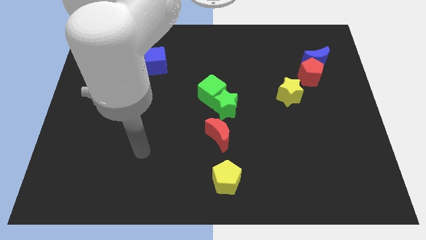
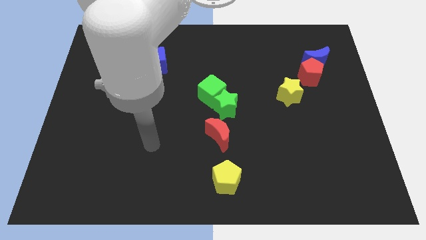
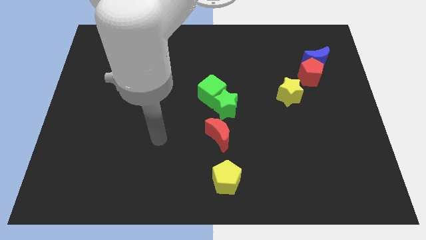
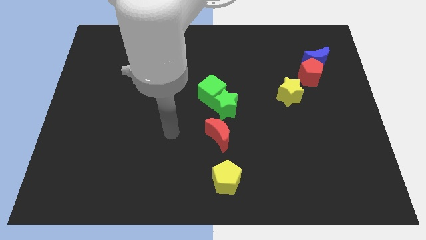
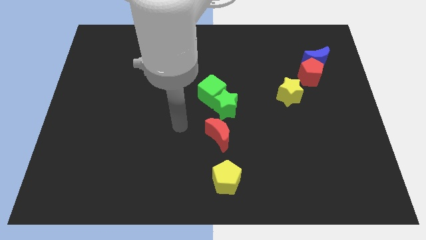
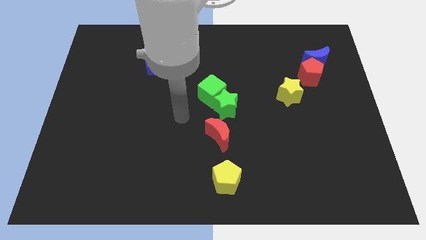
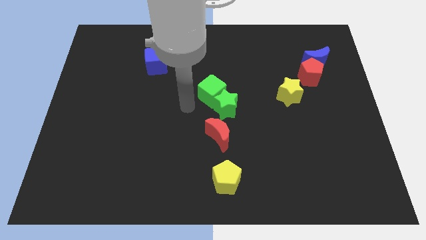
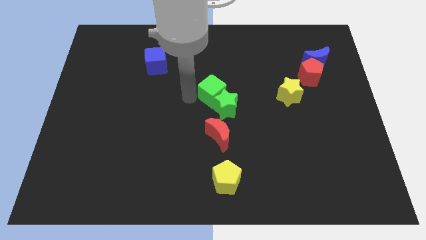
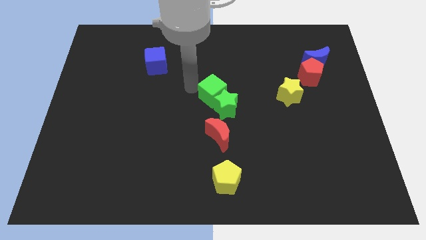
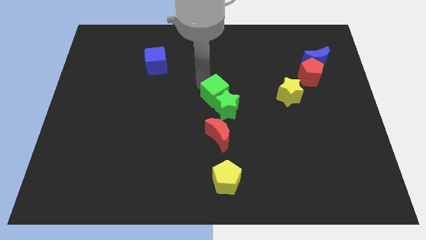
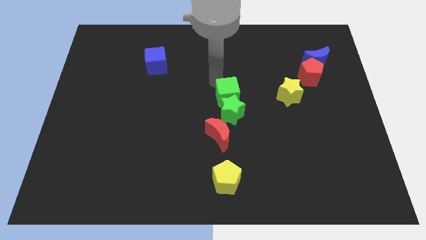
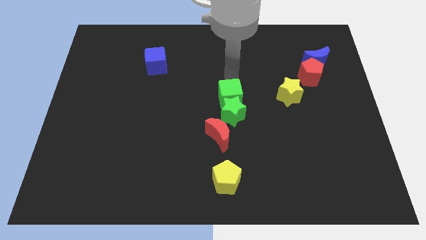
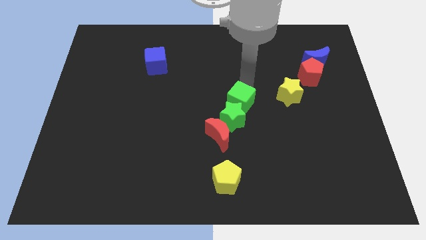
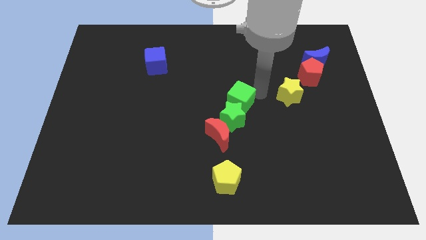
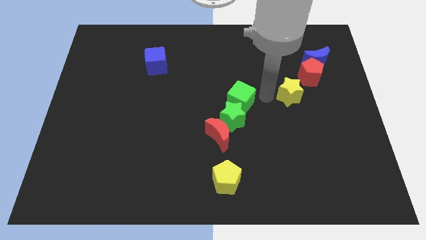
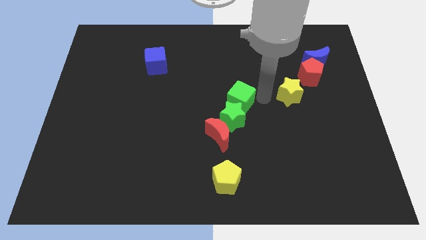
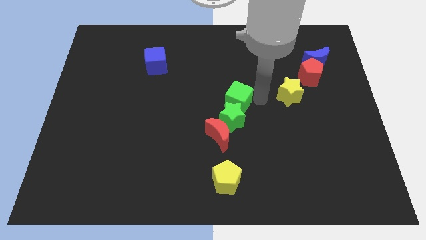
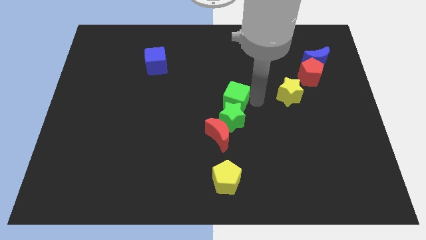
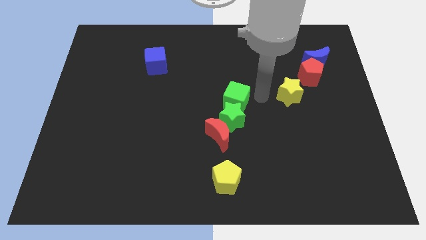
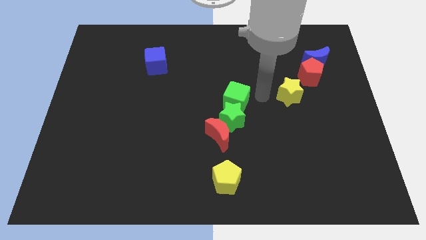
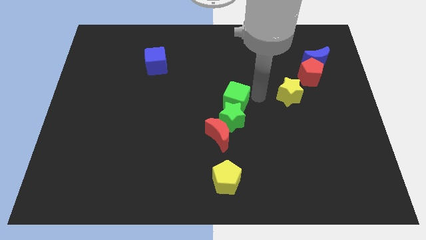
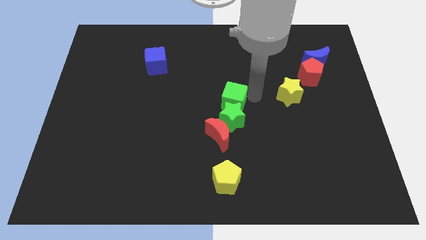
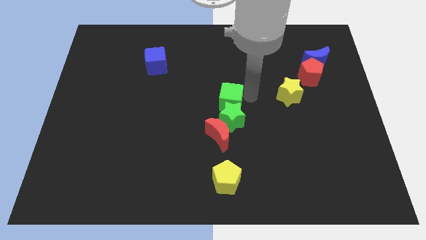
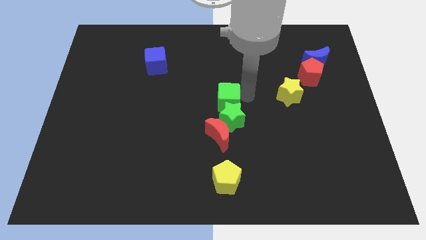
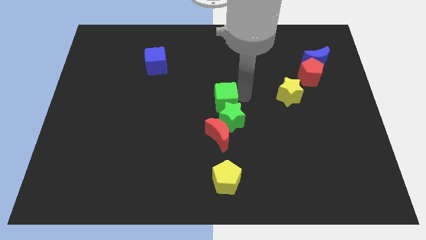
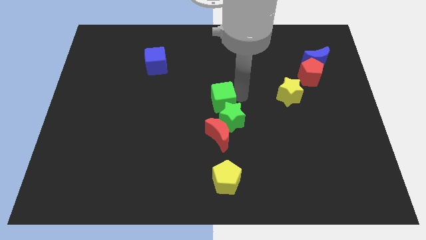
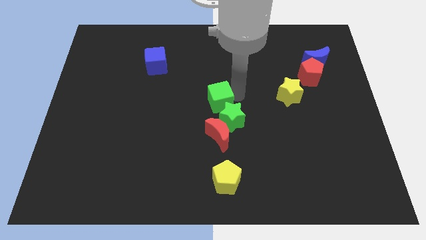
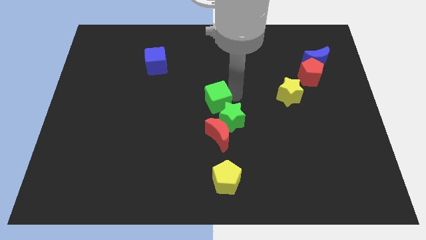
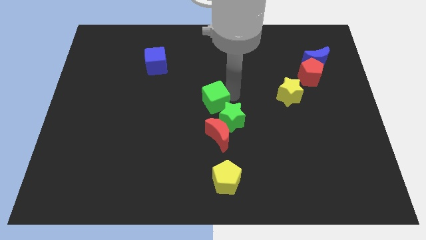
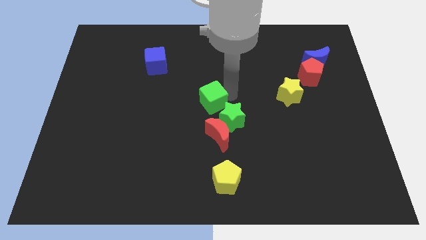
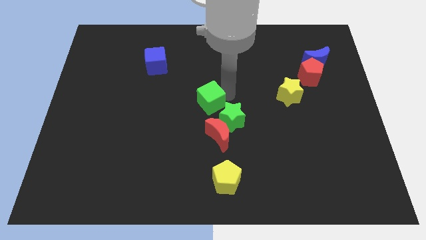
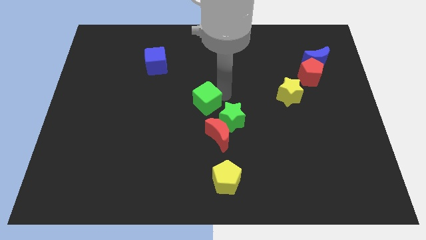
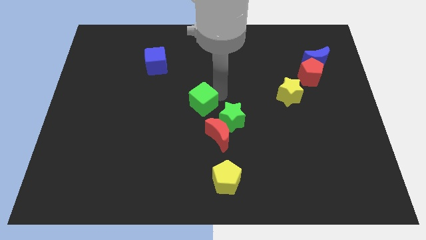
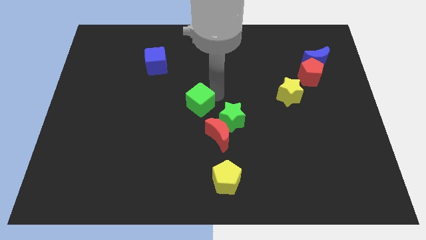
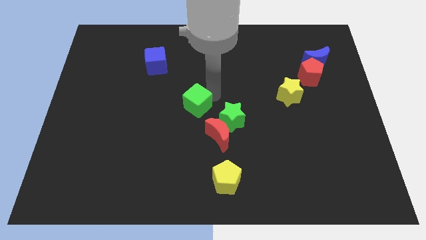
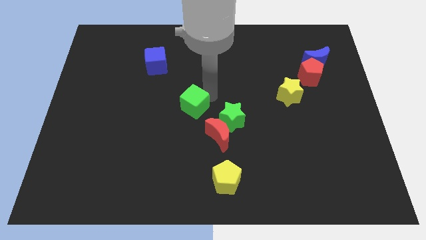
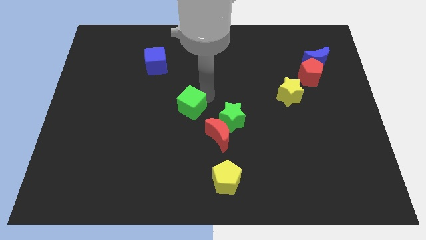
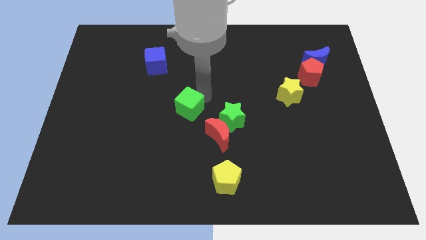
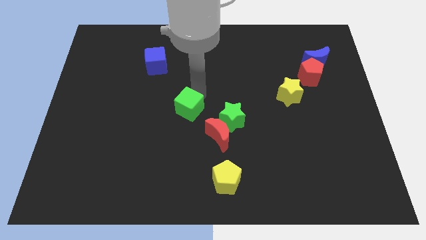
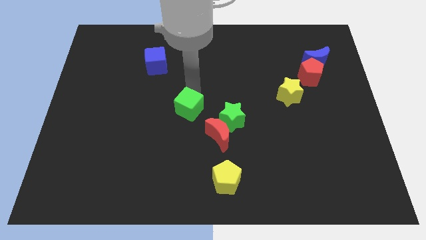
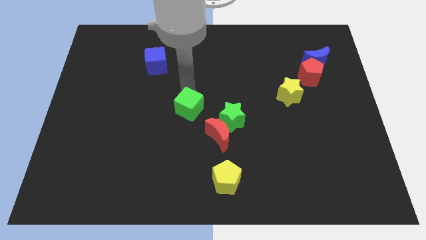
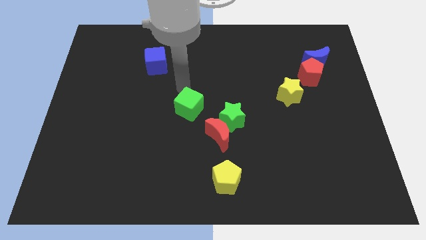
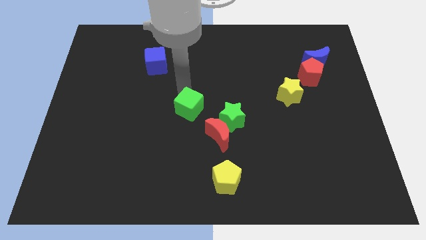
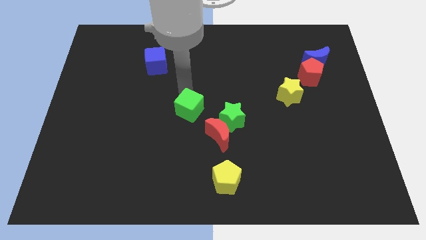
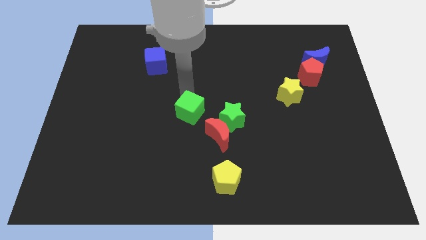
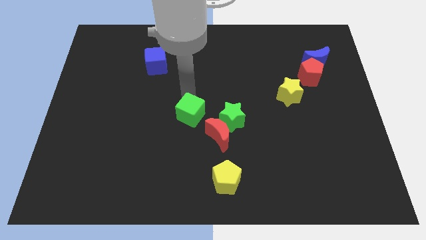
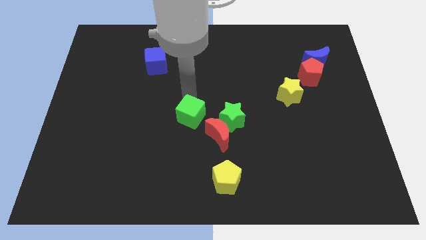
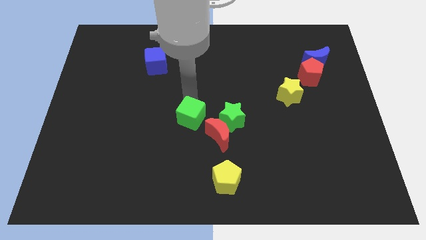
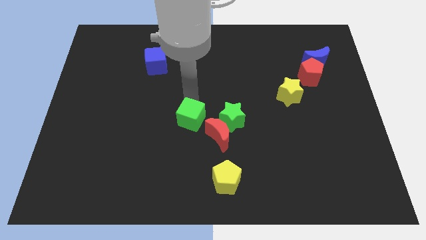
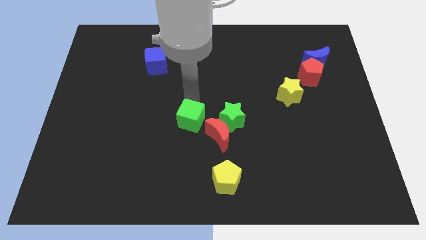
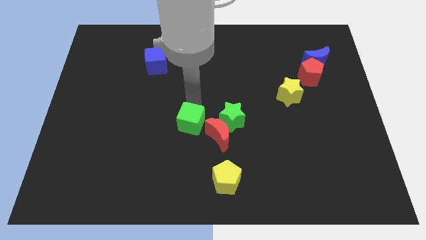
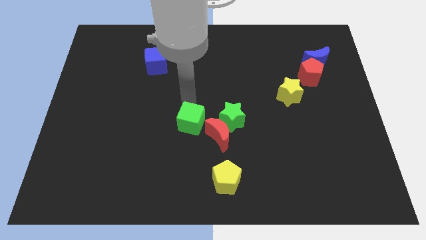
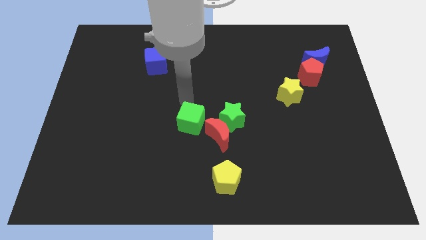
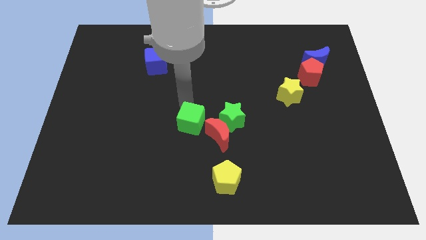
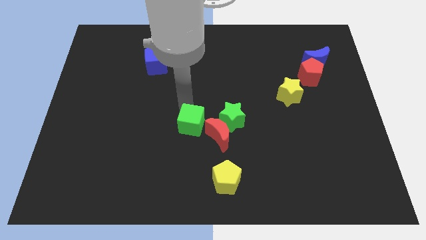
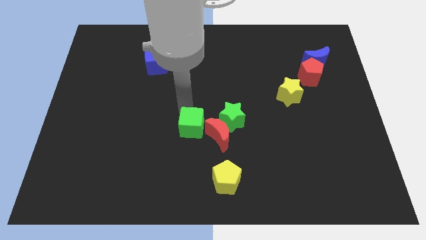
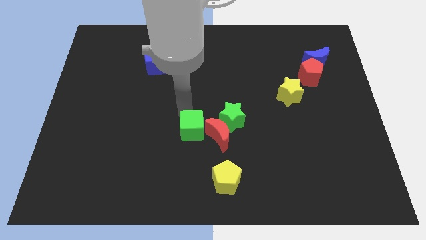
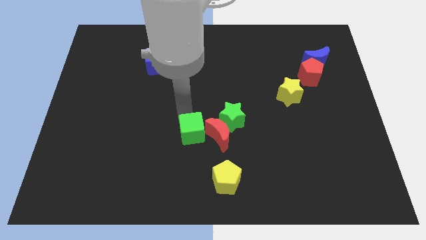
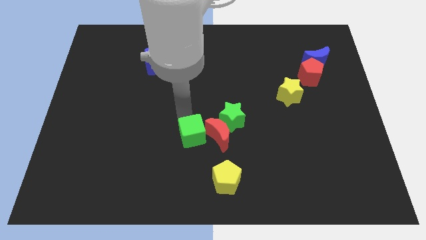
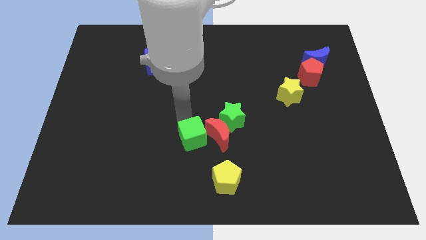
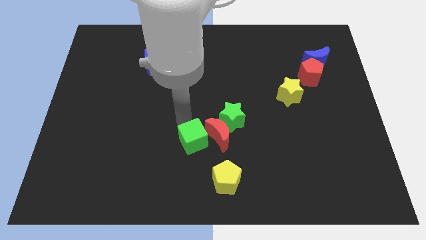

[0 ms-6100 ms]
put the green cube to the top left side of the yellow pentagon

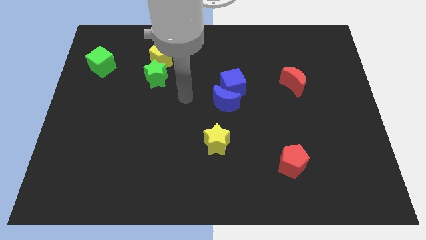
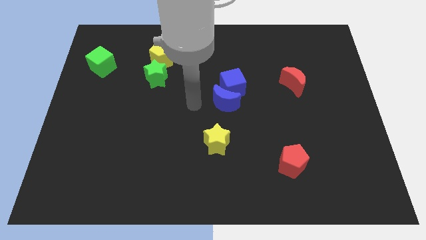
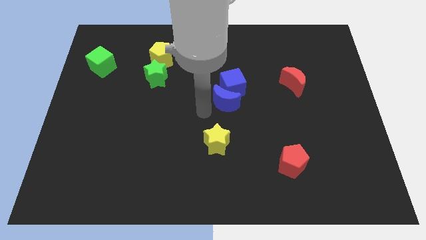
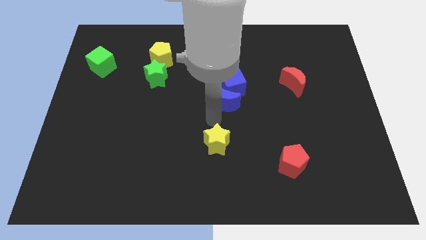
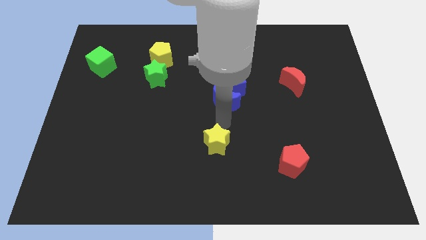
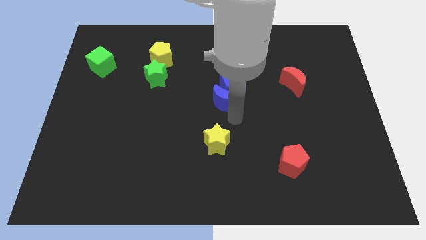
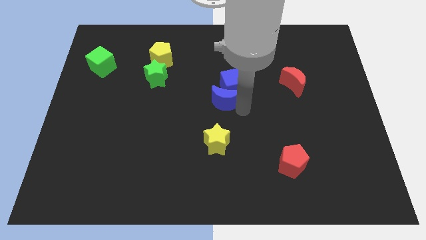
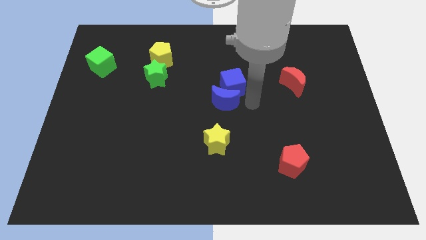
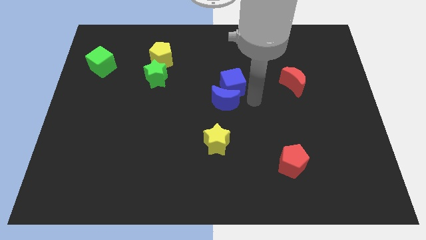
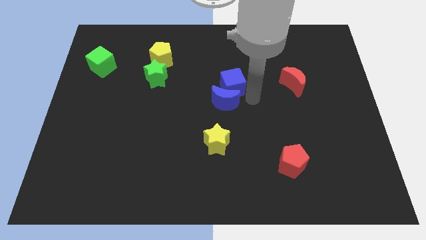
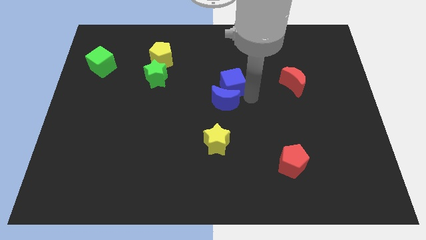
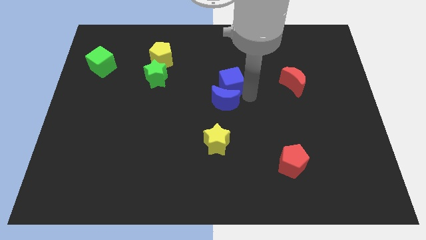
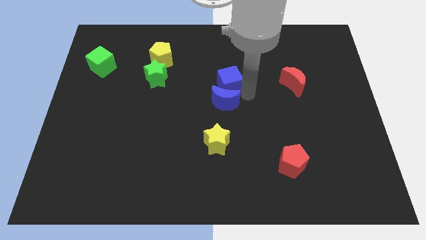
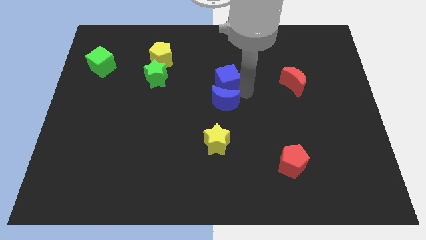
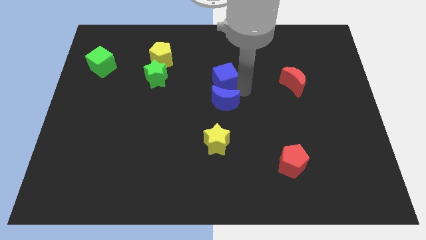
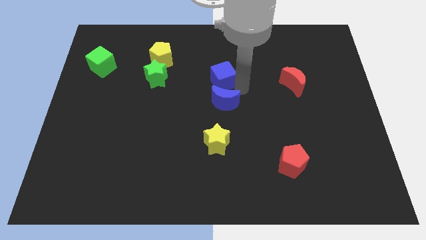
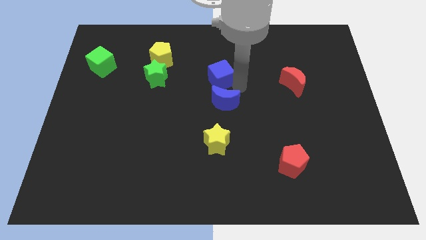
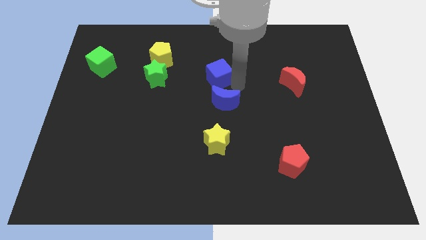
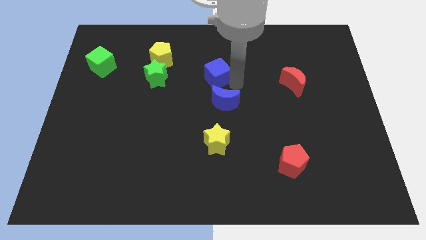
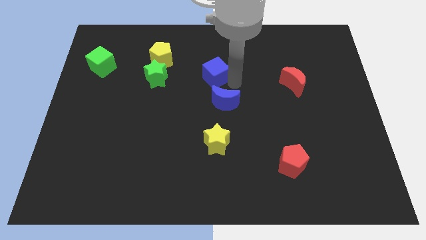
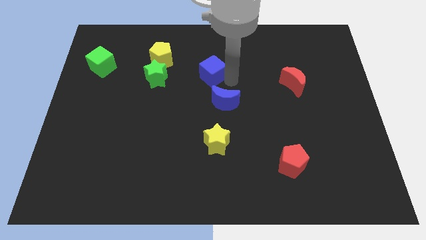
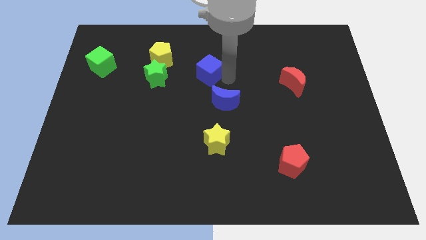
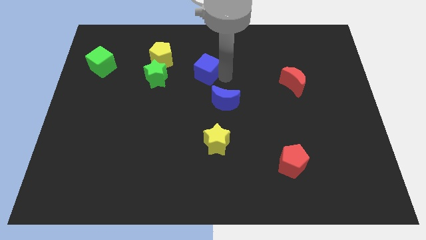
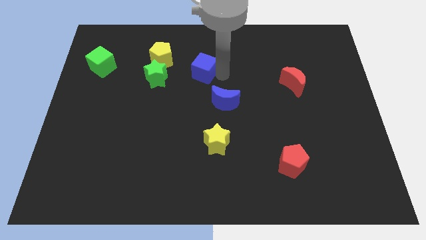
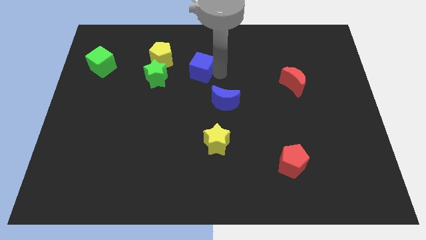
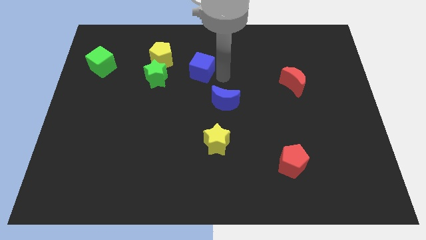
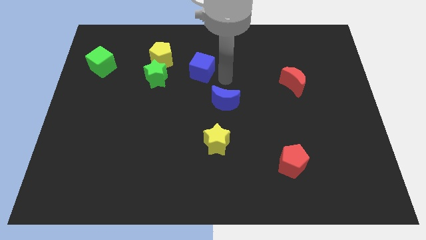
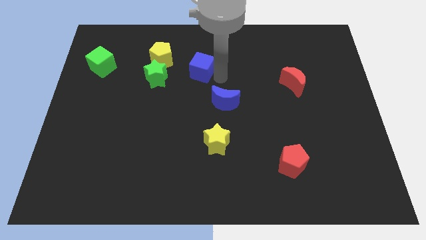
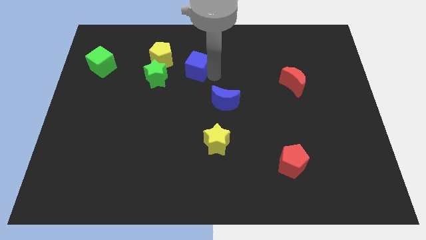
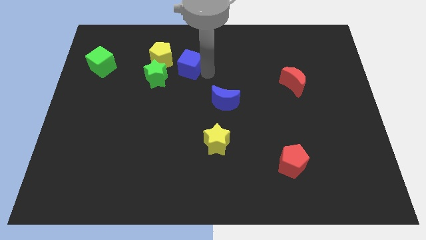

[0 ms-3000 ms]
slide the blue cube to the top right of the green star
